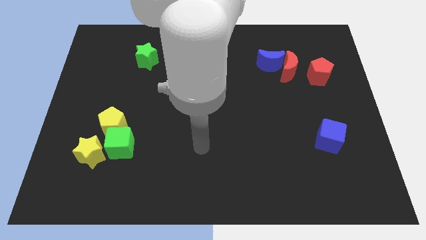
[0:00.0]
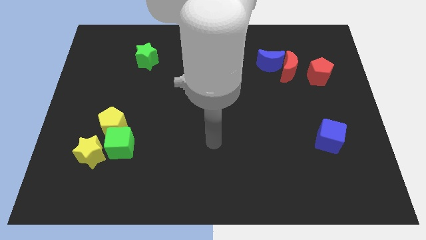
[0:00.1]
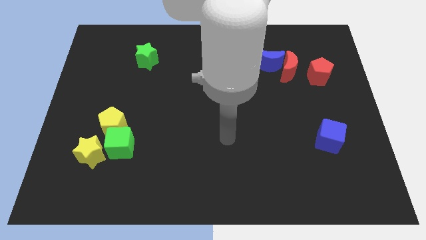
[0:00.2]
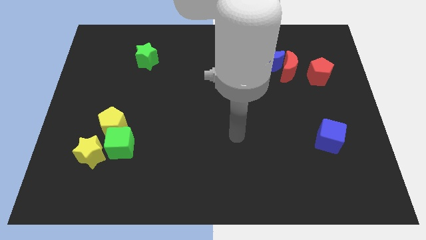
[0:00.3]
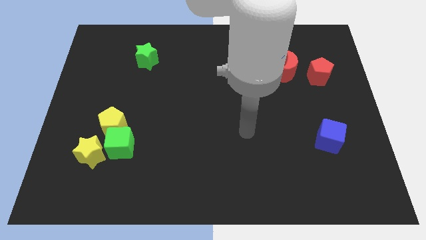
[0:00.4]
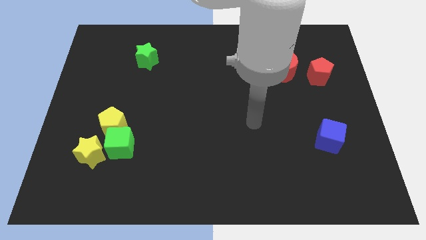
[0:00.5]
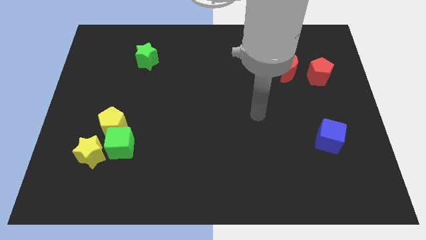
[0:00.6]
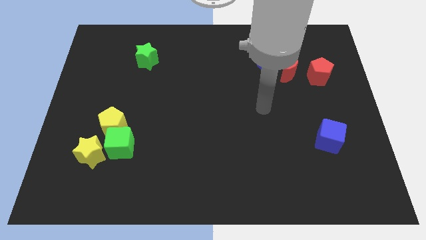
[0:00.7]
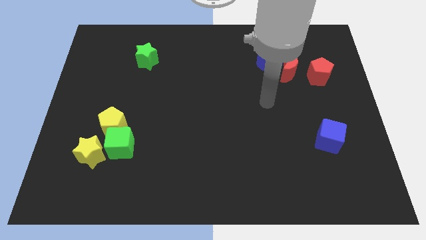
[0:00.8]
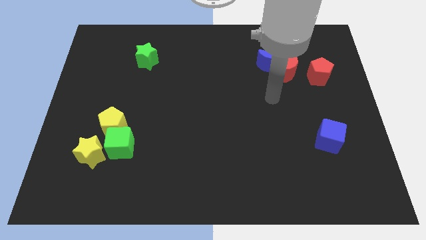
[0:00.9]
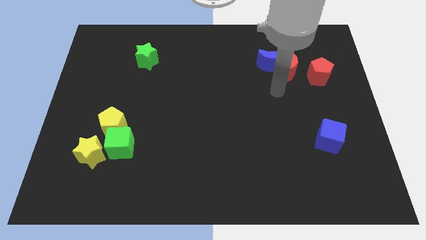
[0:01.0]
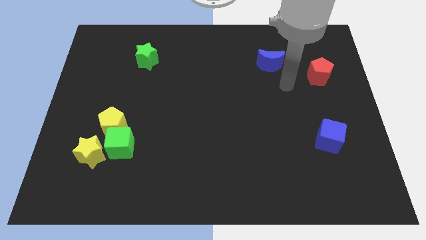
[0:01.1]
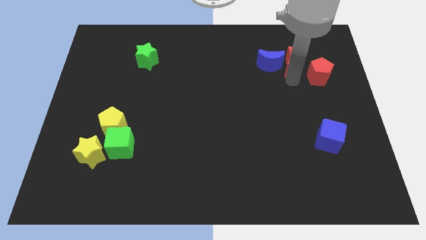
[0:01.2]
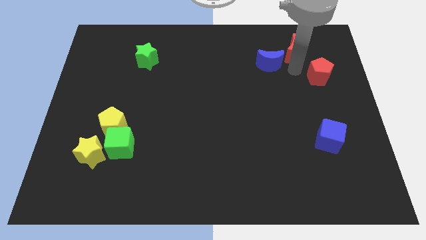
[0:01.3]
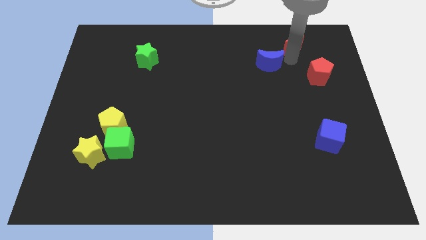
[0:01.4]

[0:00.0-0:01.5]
separate the blue moon from the red moon

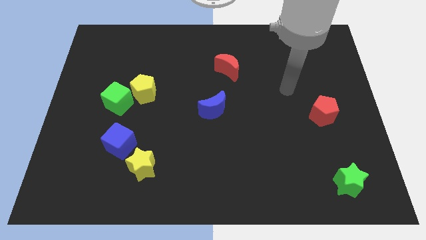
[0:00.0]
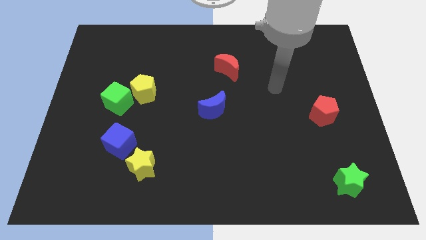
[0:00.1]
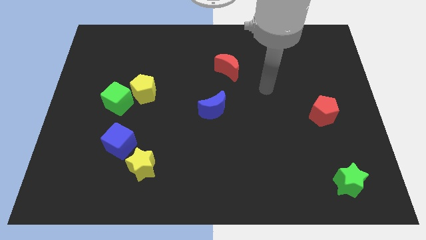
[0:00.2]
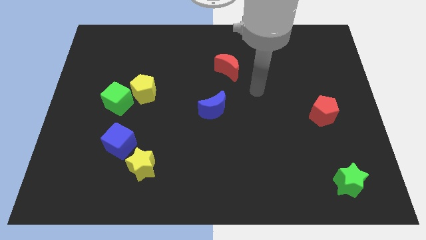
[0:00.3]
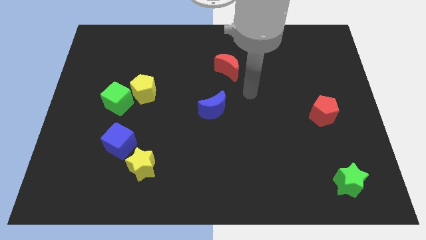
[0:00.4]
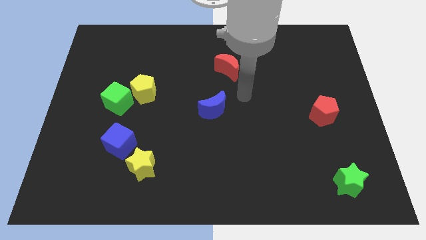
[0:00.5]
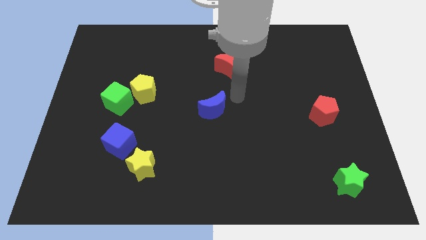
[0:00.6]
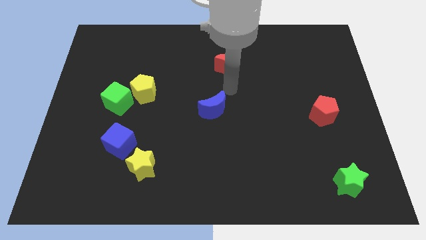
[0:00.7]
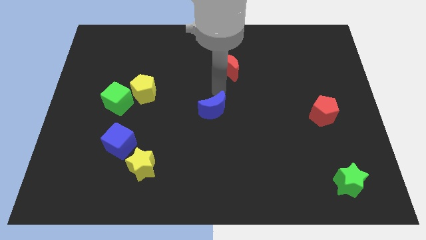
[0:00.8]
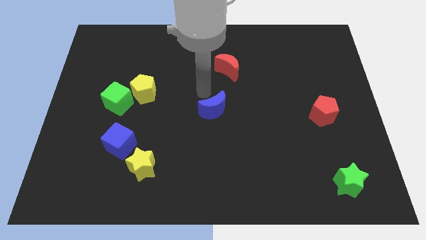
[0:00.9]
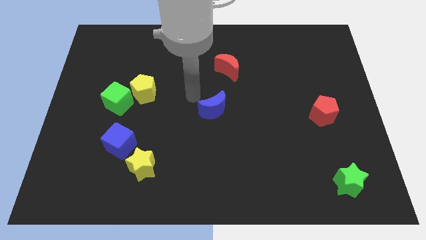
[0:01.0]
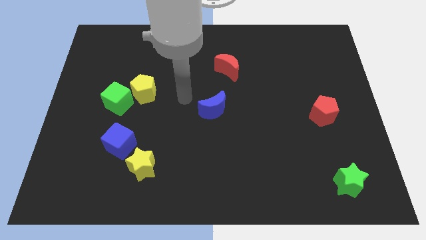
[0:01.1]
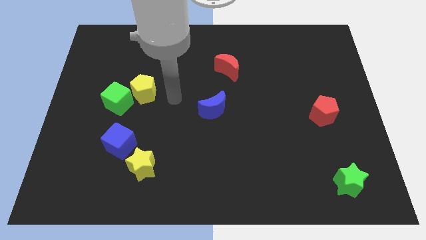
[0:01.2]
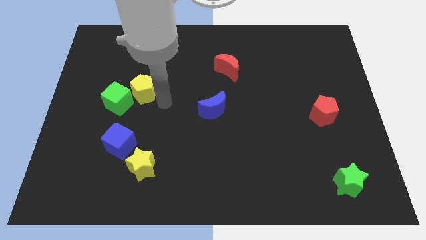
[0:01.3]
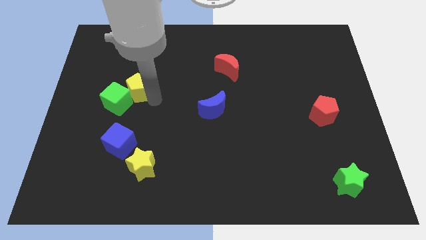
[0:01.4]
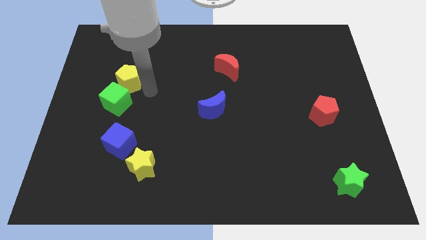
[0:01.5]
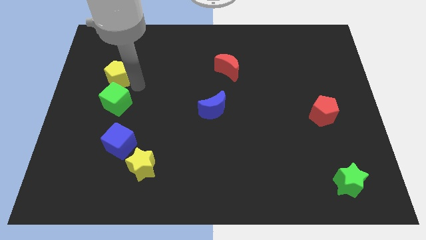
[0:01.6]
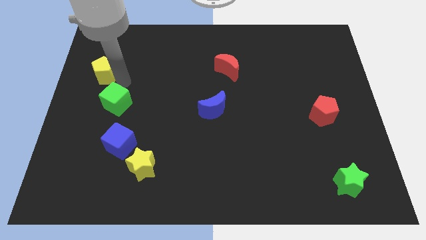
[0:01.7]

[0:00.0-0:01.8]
separate the green cube from the yellow pentagon

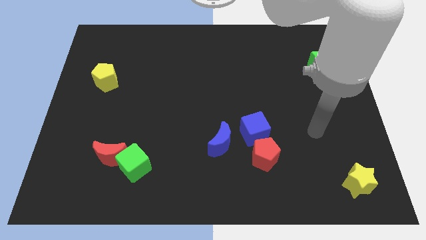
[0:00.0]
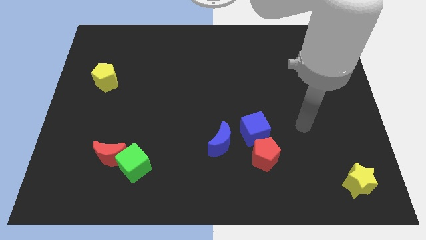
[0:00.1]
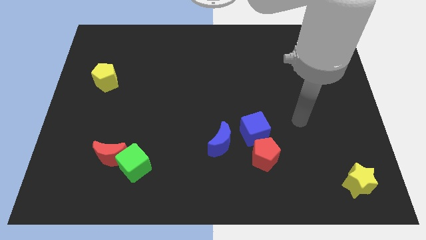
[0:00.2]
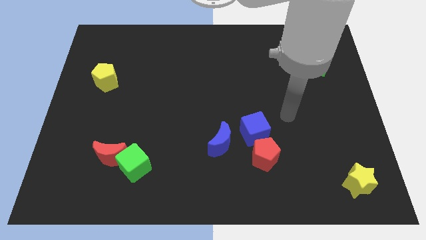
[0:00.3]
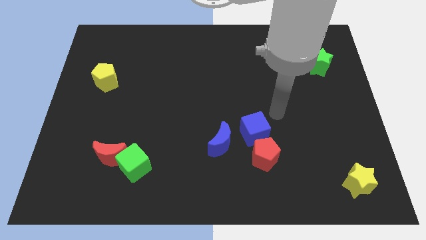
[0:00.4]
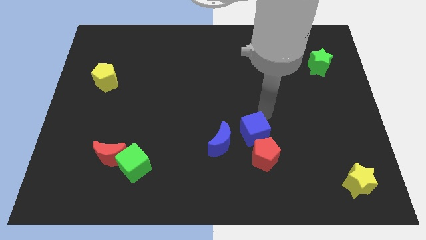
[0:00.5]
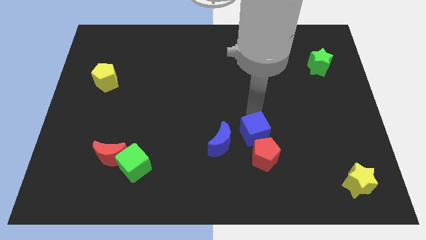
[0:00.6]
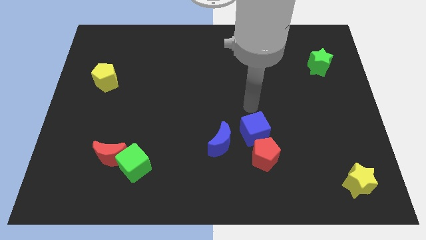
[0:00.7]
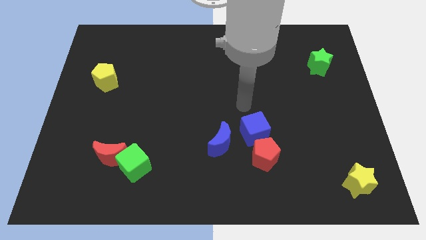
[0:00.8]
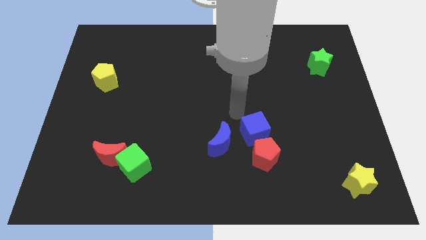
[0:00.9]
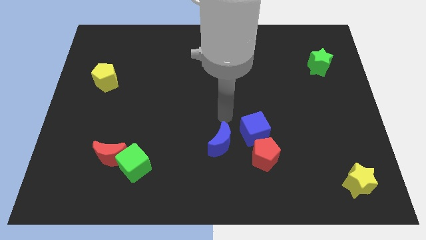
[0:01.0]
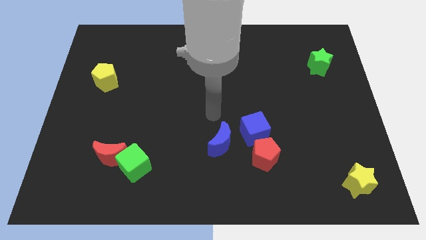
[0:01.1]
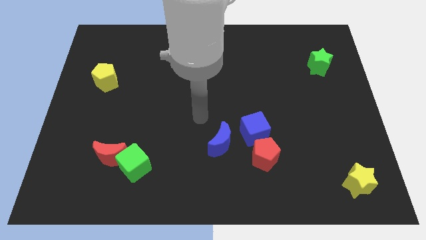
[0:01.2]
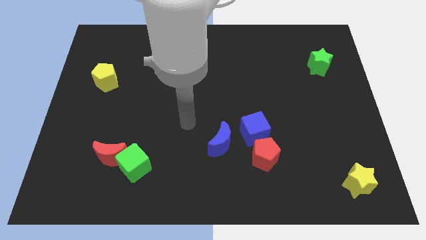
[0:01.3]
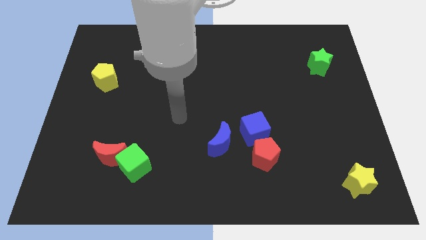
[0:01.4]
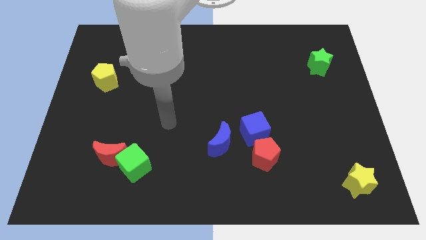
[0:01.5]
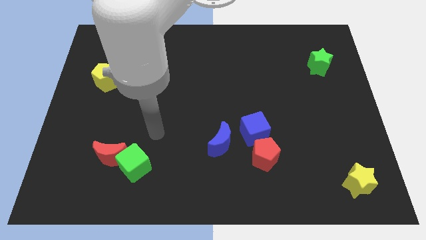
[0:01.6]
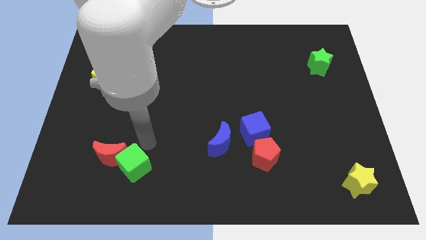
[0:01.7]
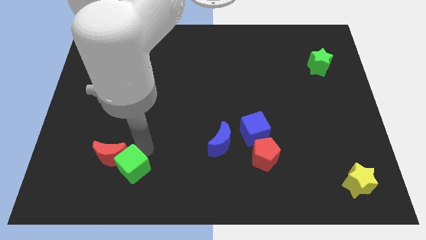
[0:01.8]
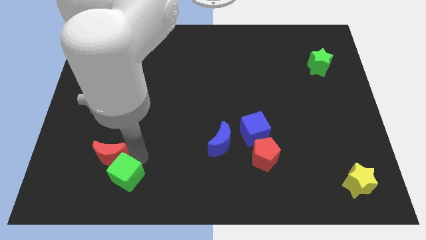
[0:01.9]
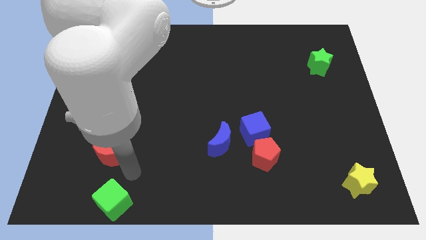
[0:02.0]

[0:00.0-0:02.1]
pull the red moon apart from the green cube

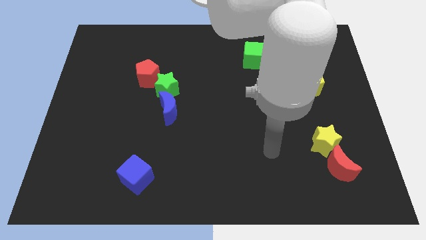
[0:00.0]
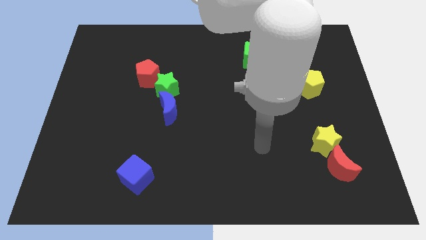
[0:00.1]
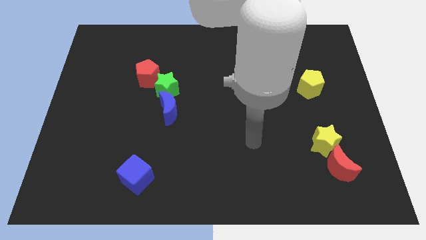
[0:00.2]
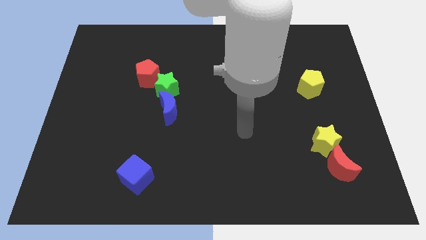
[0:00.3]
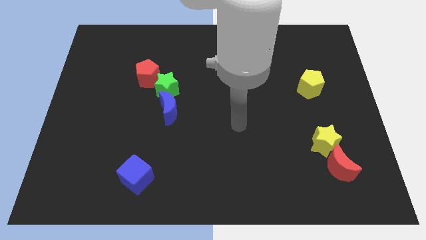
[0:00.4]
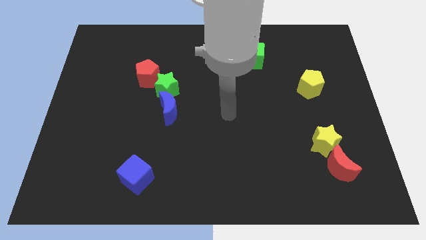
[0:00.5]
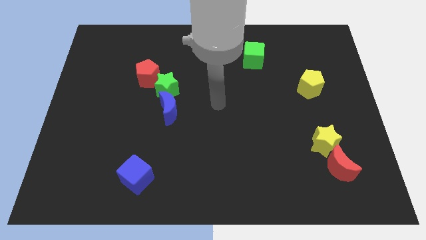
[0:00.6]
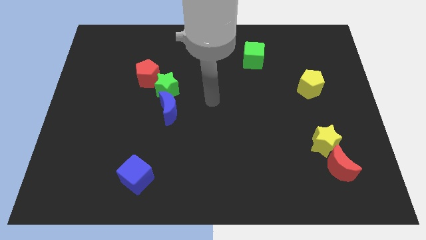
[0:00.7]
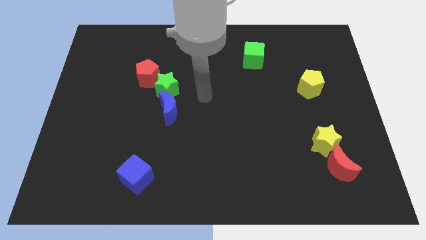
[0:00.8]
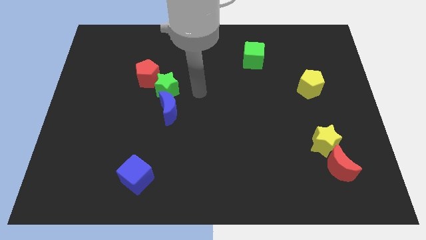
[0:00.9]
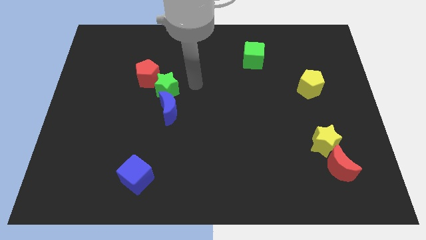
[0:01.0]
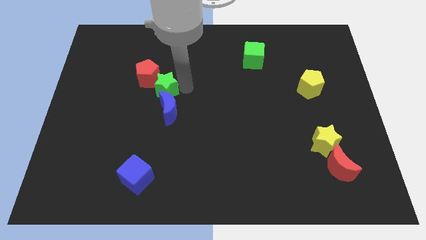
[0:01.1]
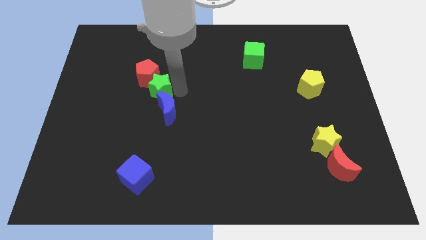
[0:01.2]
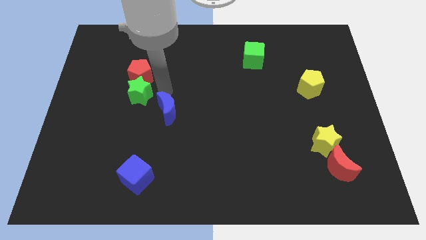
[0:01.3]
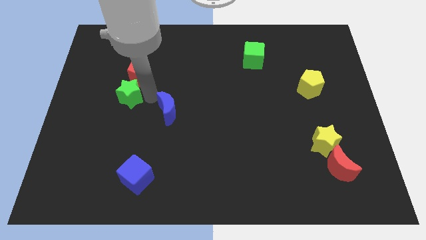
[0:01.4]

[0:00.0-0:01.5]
separate the blue moon from the green star

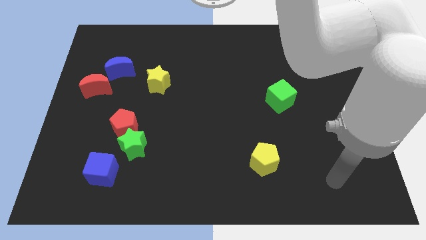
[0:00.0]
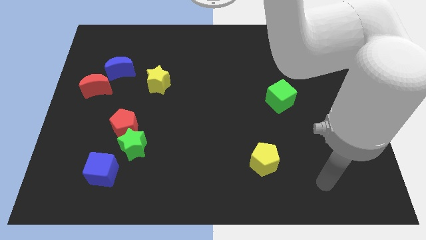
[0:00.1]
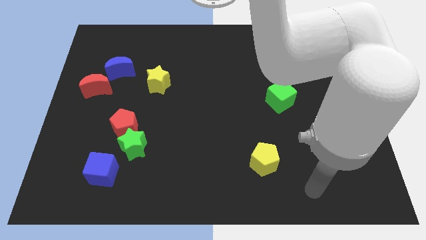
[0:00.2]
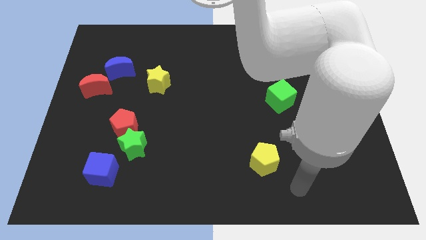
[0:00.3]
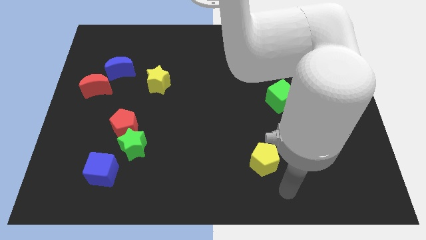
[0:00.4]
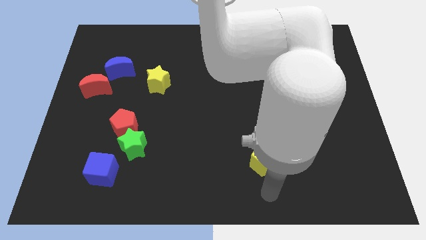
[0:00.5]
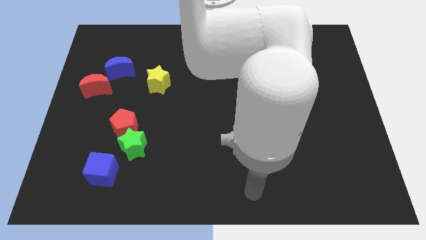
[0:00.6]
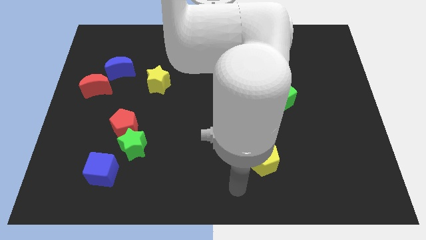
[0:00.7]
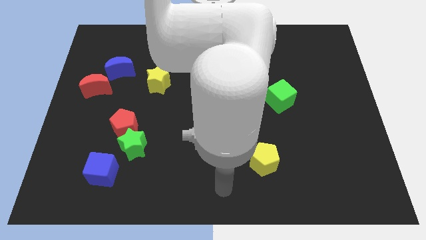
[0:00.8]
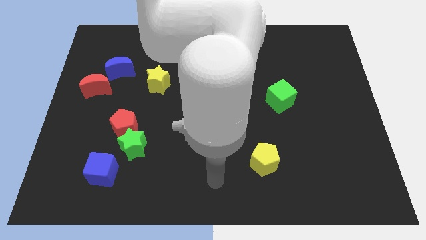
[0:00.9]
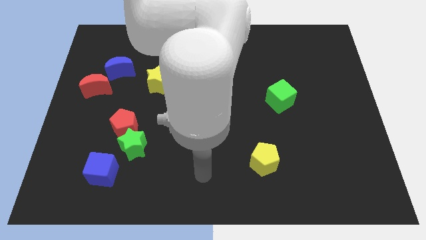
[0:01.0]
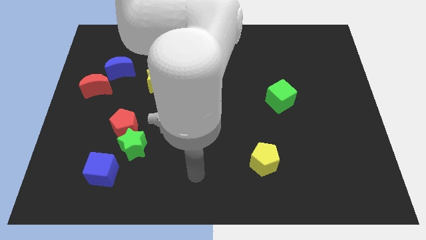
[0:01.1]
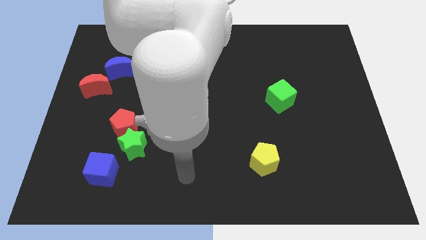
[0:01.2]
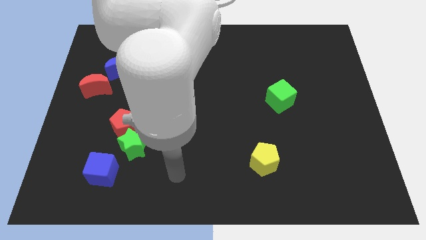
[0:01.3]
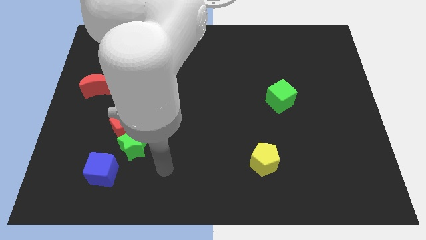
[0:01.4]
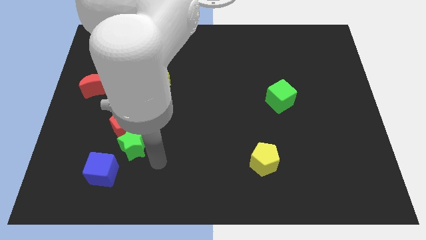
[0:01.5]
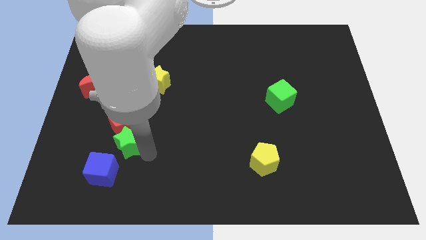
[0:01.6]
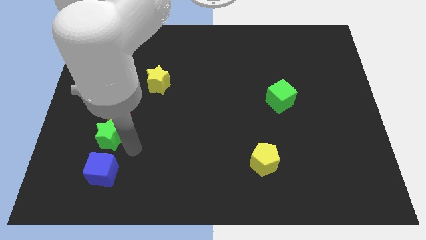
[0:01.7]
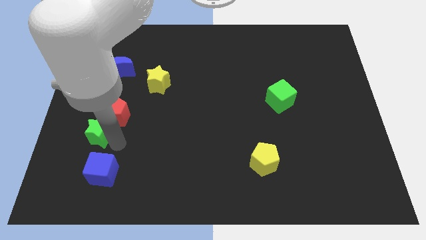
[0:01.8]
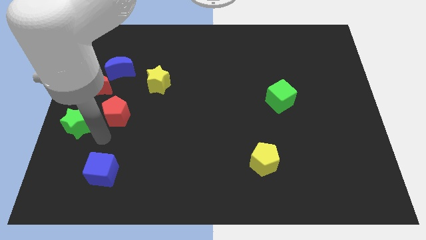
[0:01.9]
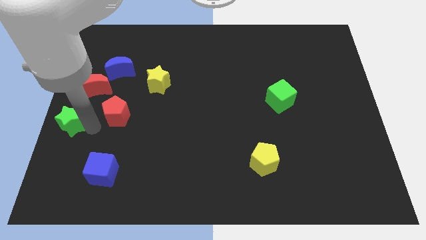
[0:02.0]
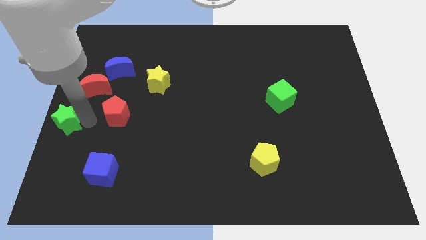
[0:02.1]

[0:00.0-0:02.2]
separate the red pentagon from the green star

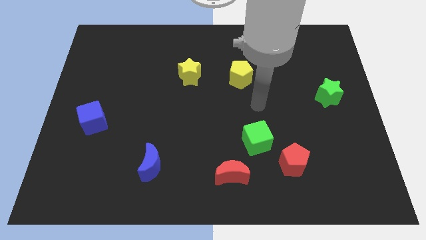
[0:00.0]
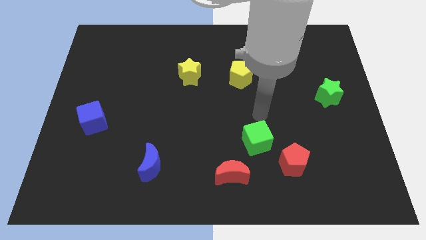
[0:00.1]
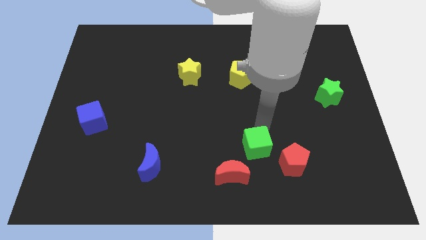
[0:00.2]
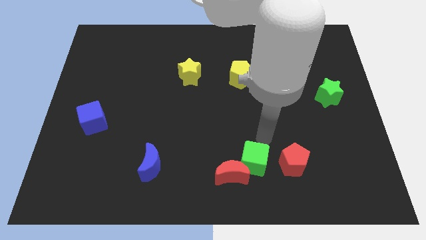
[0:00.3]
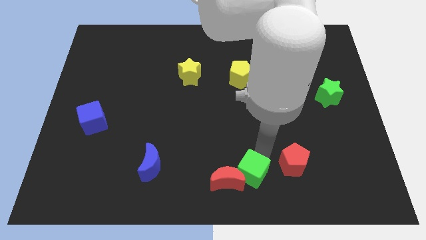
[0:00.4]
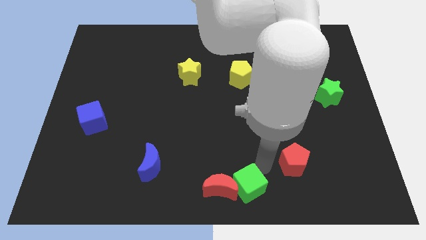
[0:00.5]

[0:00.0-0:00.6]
move the red pentagon away from the green cube
